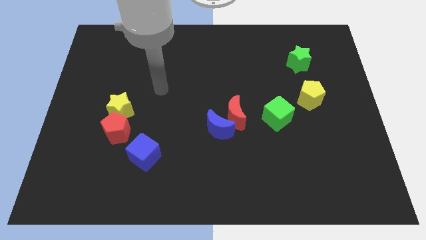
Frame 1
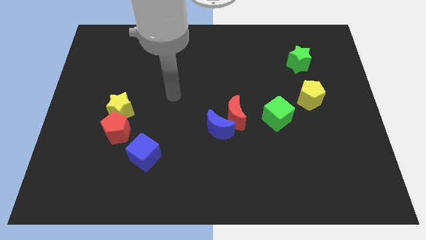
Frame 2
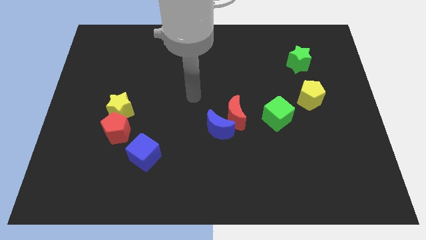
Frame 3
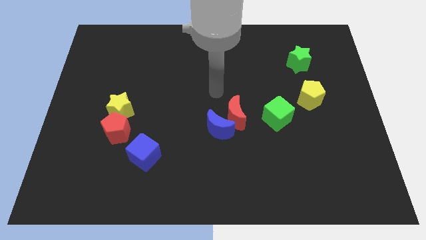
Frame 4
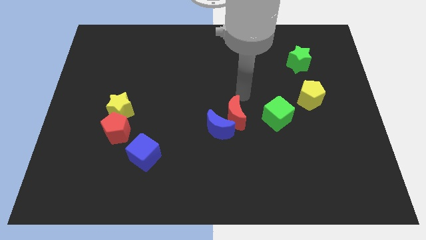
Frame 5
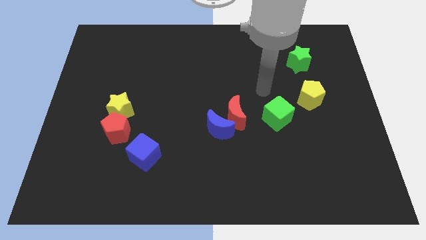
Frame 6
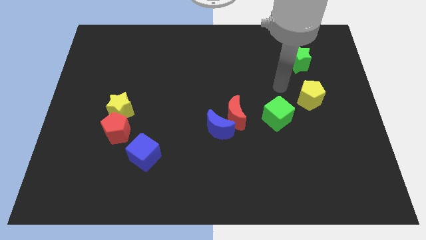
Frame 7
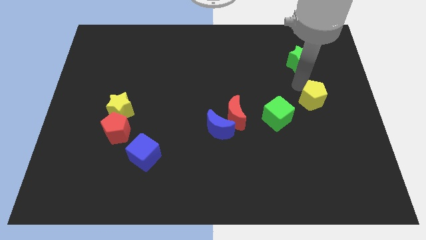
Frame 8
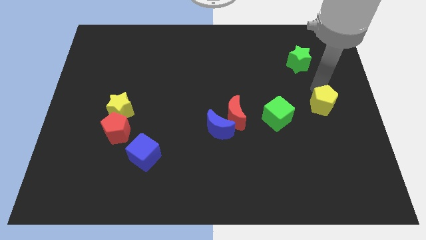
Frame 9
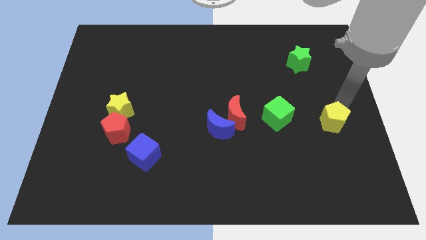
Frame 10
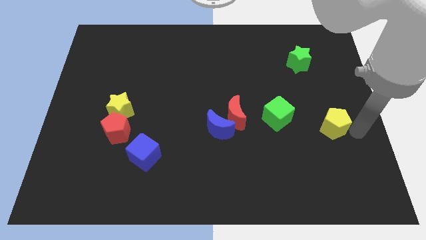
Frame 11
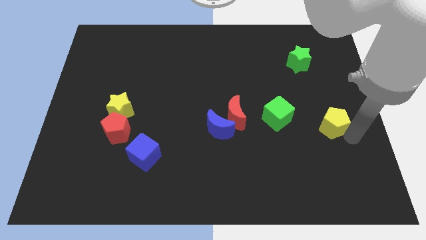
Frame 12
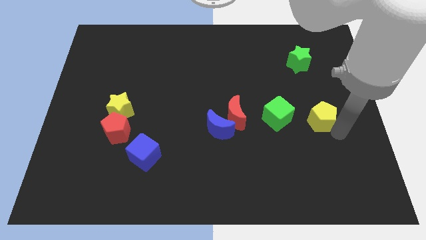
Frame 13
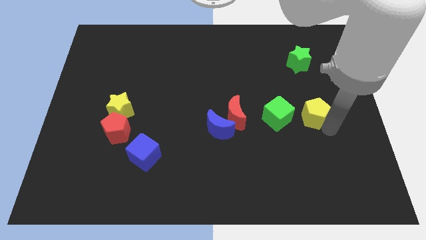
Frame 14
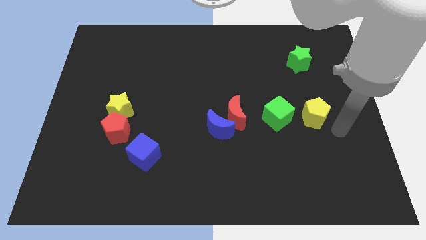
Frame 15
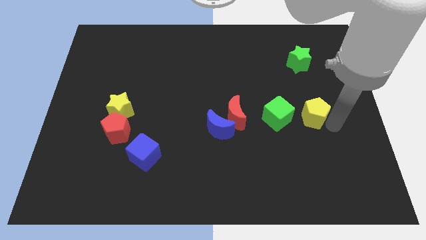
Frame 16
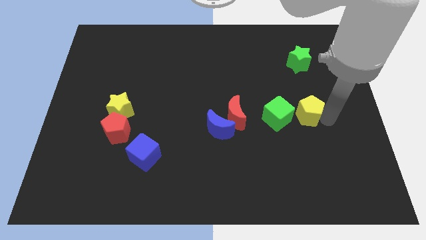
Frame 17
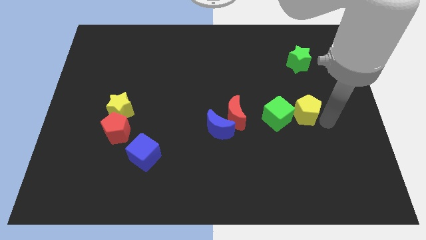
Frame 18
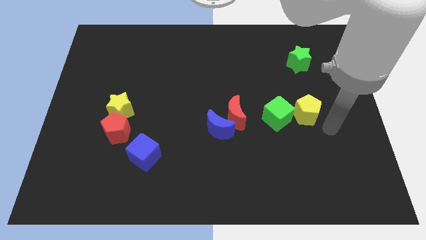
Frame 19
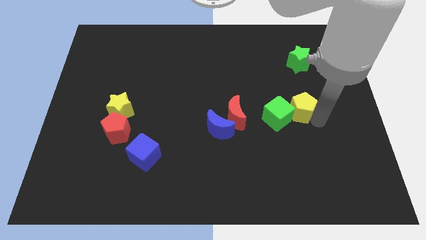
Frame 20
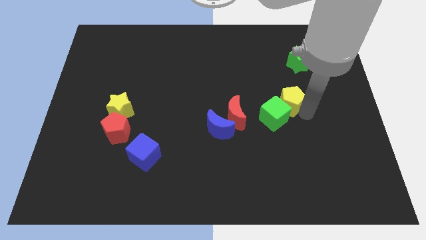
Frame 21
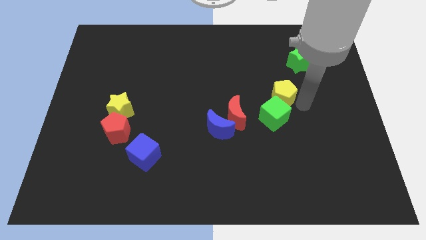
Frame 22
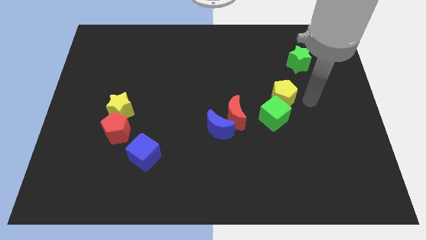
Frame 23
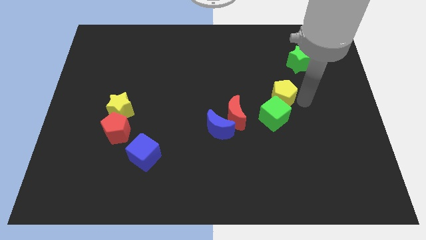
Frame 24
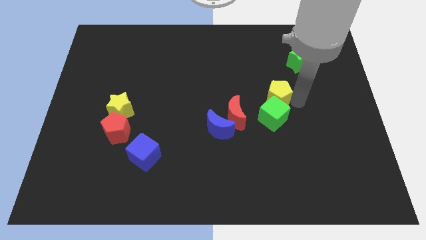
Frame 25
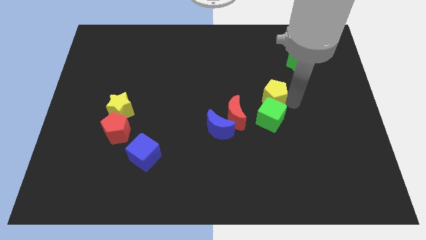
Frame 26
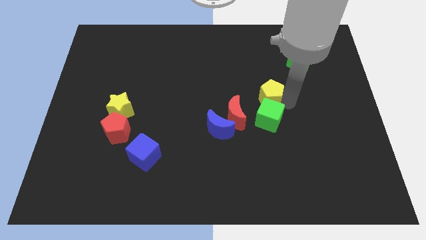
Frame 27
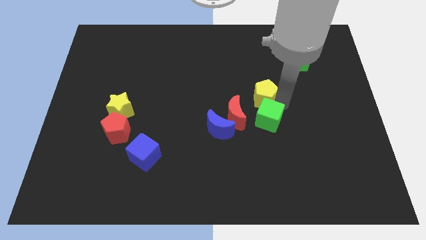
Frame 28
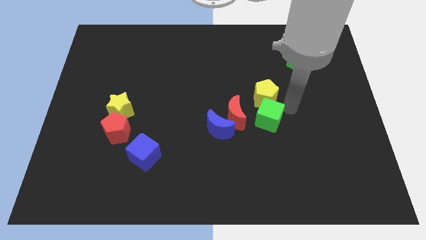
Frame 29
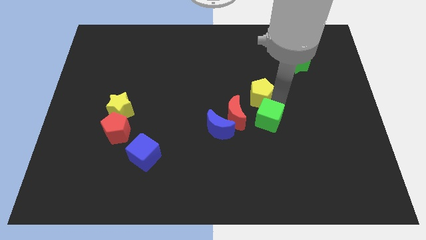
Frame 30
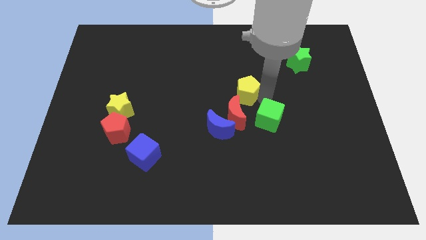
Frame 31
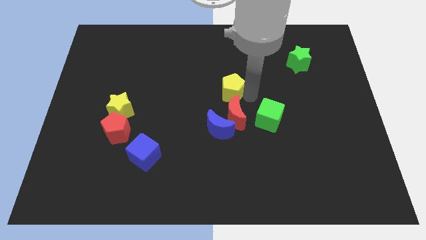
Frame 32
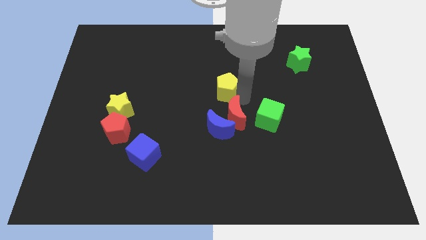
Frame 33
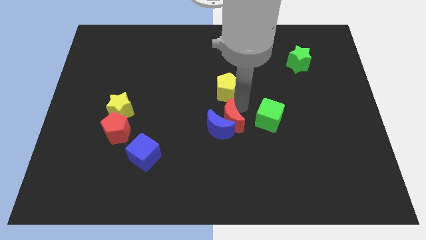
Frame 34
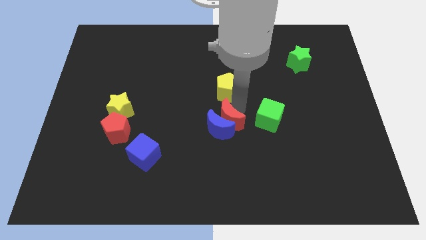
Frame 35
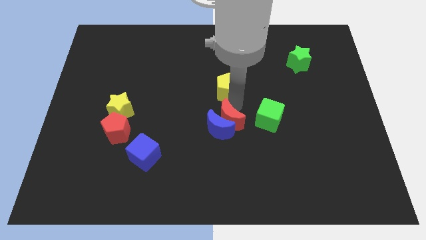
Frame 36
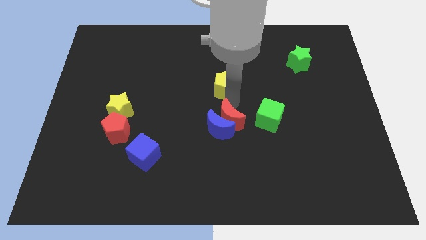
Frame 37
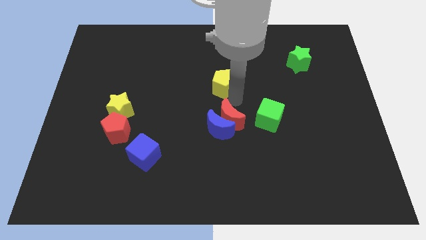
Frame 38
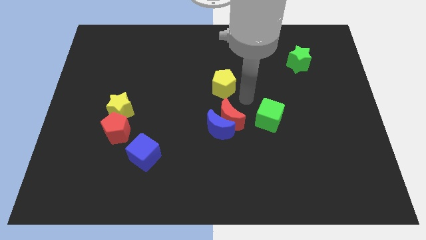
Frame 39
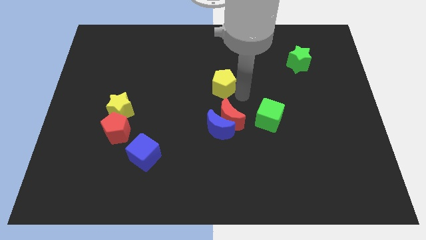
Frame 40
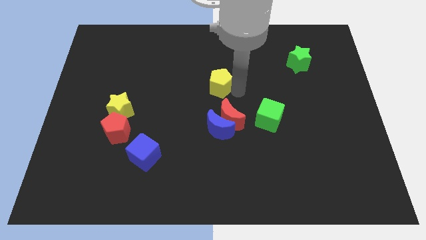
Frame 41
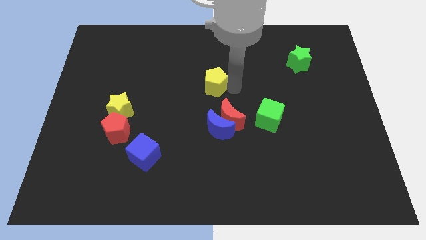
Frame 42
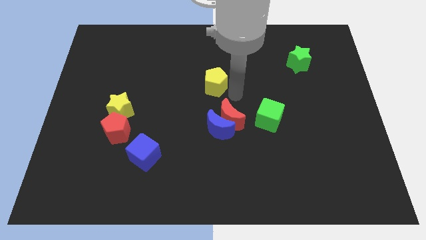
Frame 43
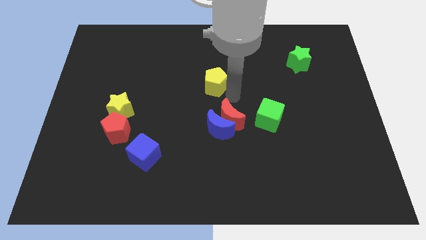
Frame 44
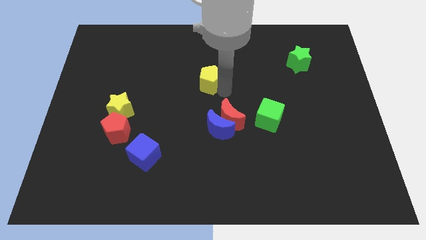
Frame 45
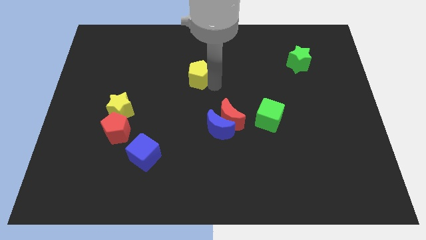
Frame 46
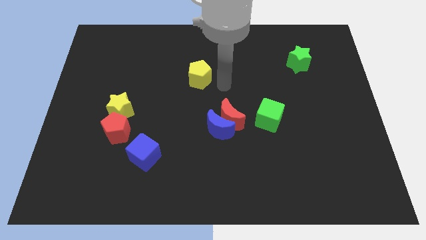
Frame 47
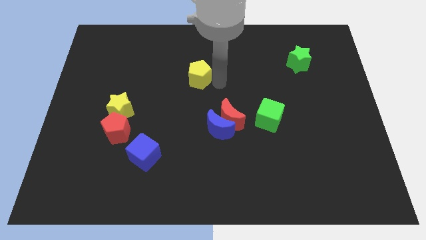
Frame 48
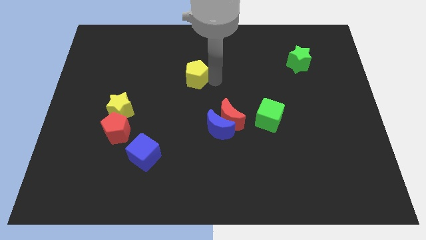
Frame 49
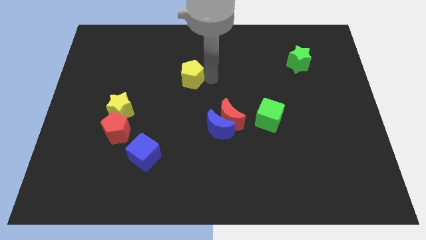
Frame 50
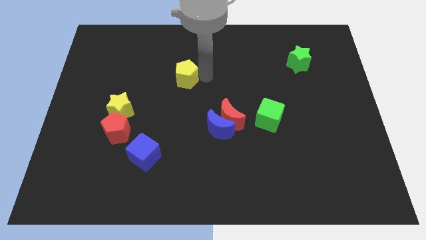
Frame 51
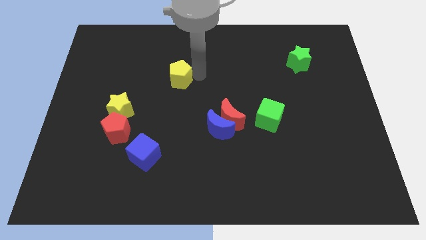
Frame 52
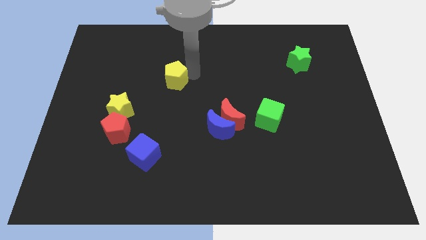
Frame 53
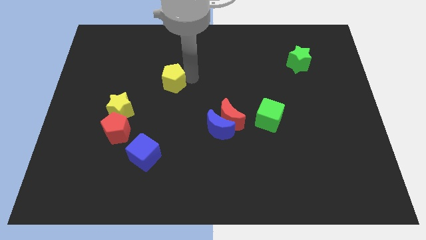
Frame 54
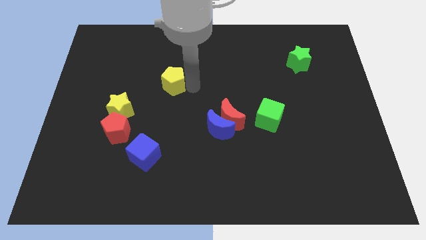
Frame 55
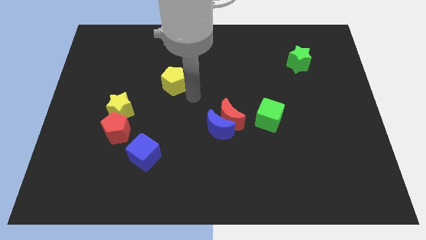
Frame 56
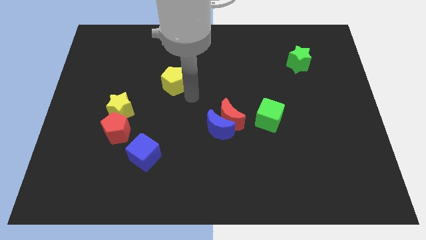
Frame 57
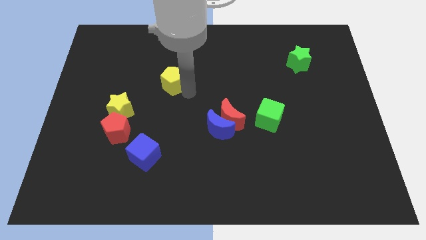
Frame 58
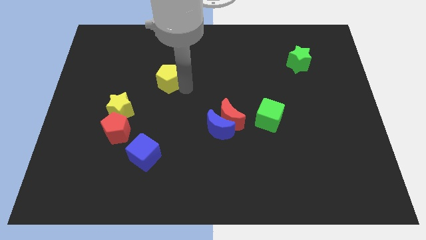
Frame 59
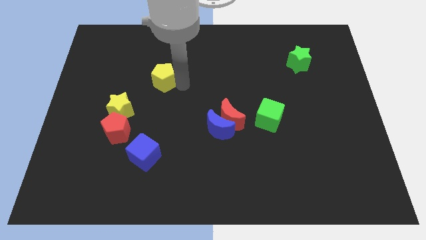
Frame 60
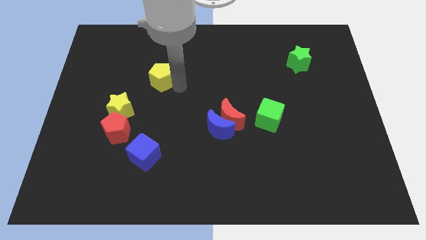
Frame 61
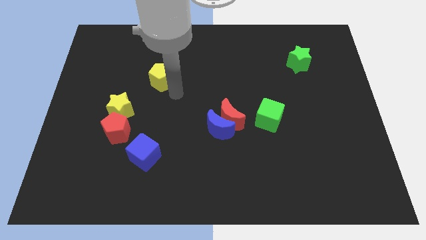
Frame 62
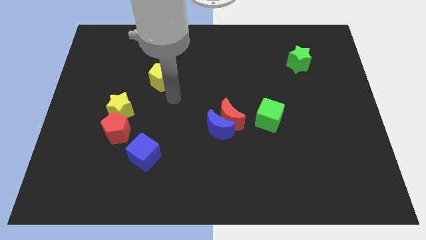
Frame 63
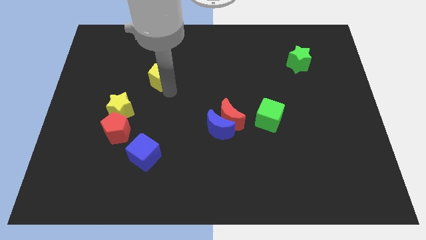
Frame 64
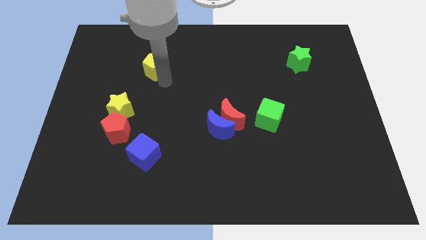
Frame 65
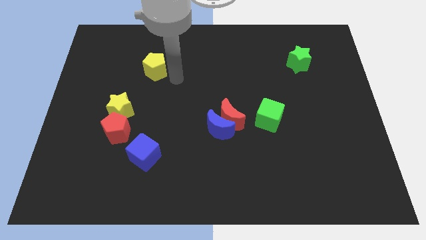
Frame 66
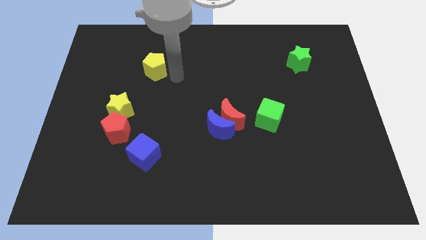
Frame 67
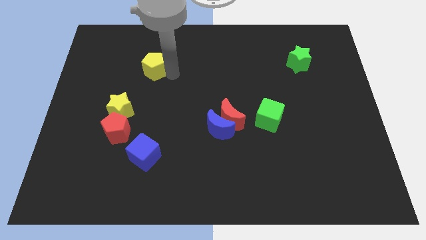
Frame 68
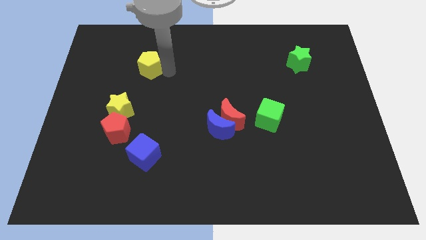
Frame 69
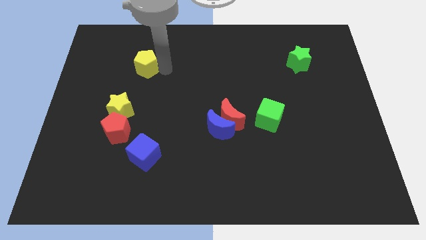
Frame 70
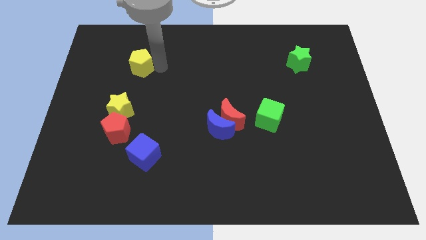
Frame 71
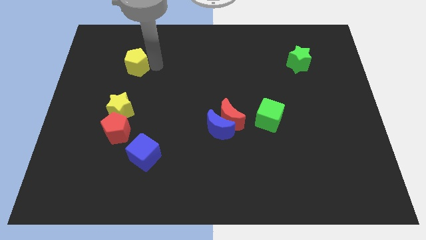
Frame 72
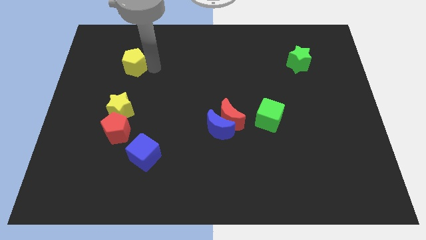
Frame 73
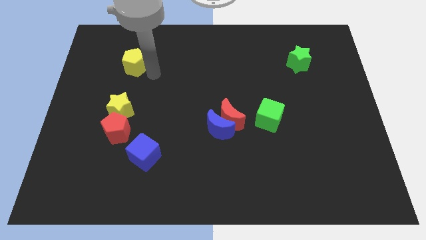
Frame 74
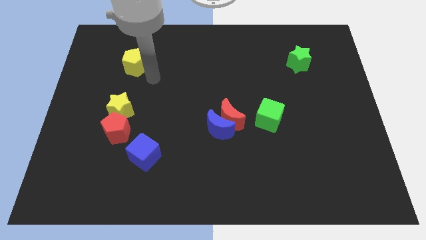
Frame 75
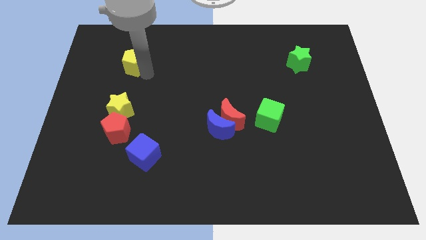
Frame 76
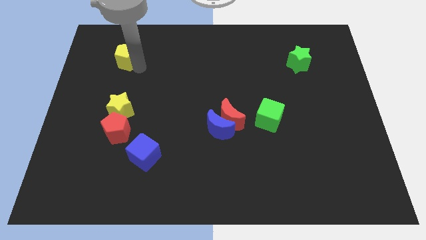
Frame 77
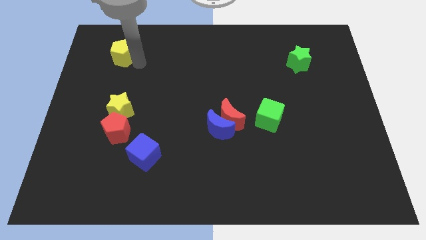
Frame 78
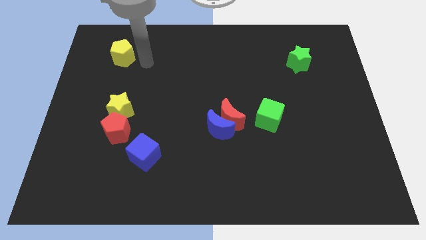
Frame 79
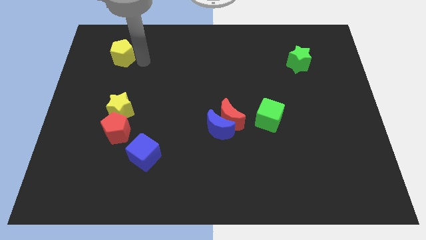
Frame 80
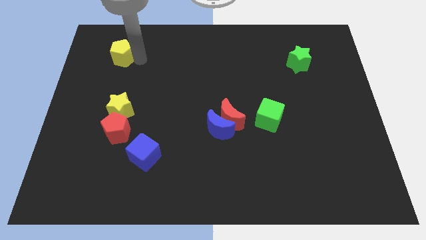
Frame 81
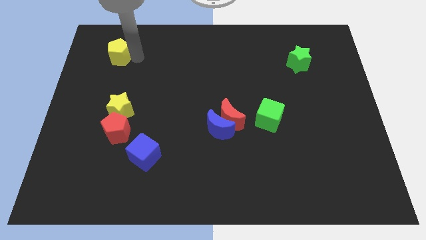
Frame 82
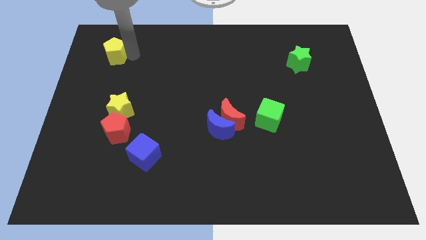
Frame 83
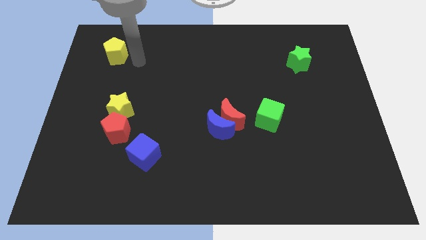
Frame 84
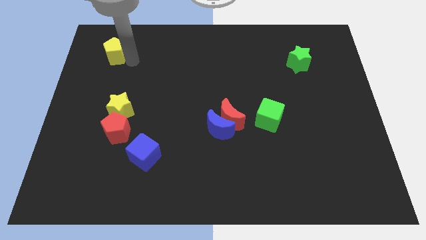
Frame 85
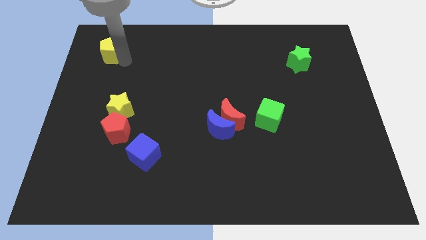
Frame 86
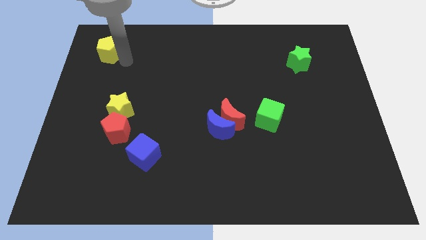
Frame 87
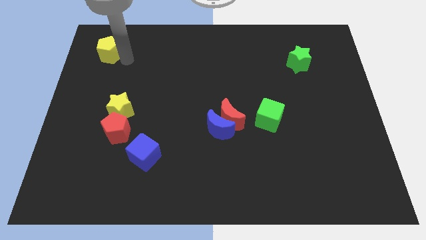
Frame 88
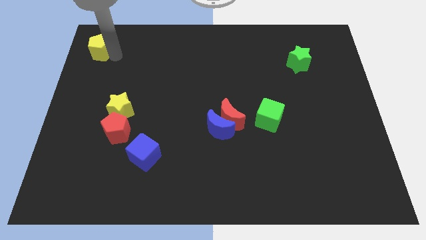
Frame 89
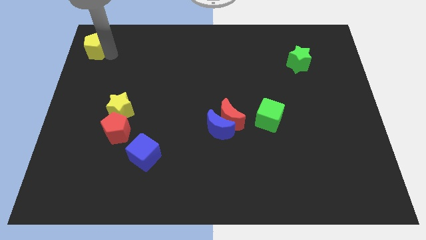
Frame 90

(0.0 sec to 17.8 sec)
slide the yellow pentagon to the top left corner
